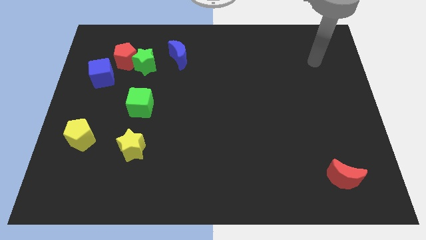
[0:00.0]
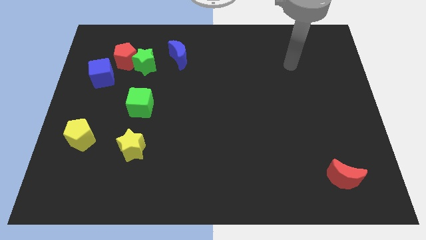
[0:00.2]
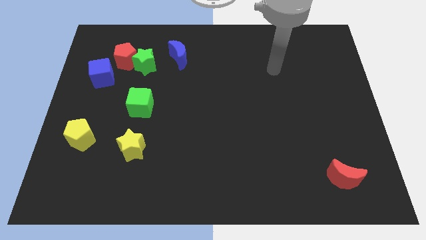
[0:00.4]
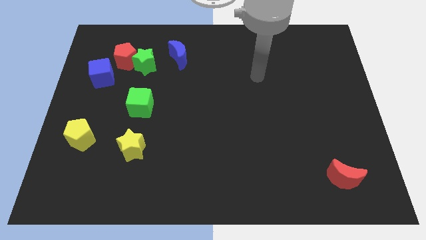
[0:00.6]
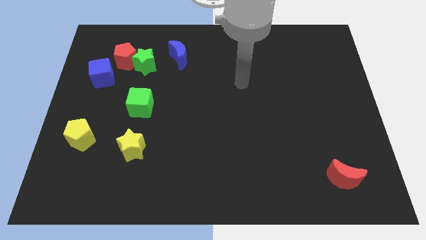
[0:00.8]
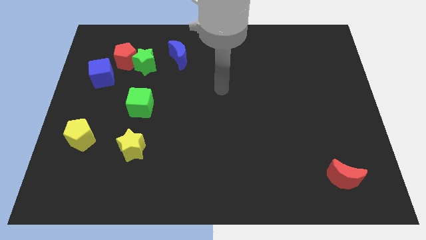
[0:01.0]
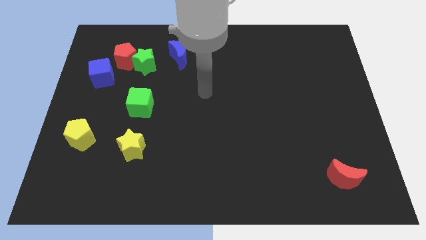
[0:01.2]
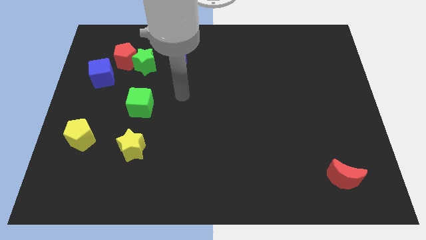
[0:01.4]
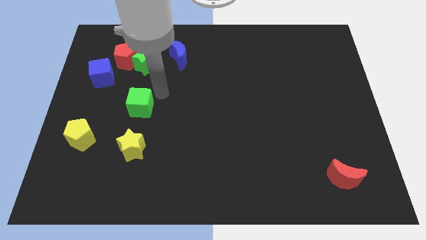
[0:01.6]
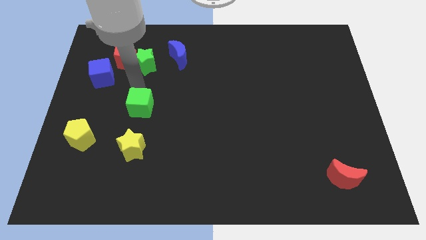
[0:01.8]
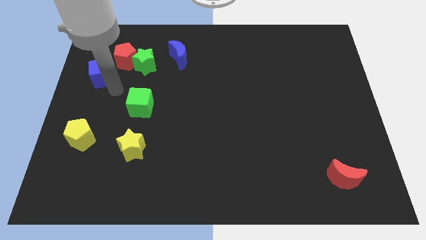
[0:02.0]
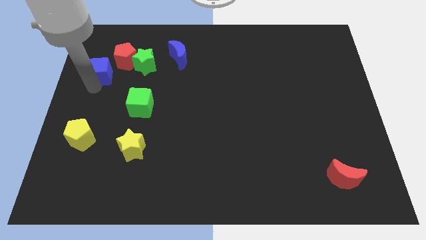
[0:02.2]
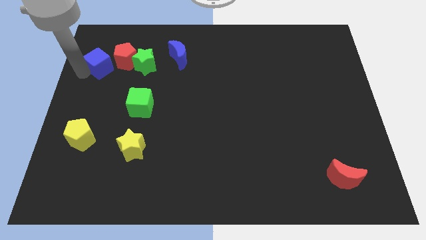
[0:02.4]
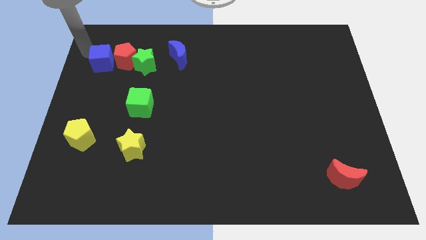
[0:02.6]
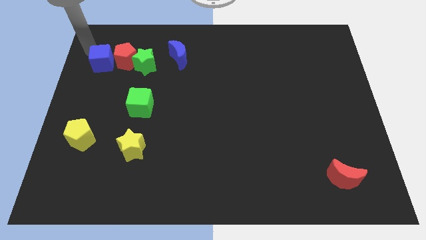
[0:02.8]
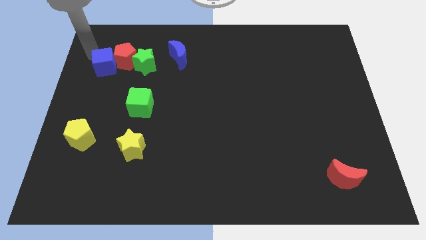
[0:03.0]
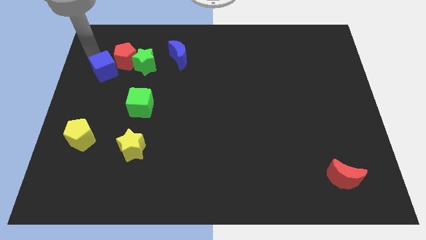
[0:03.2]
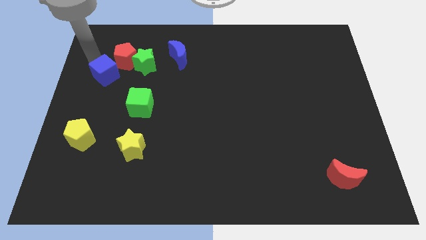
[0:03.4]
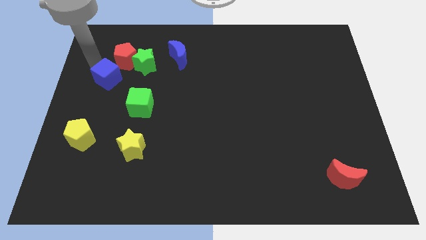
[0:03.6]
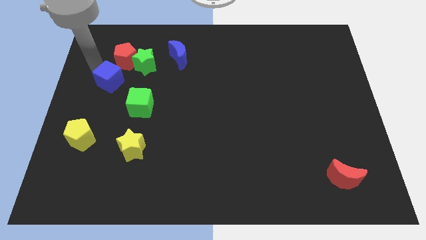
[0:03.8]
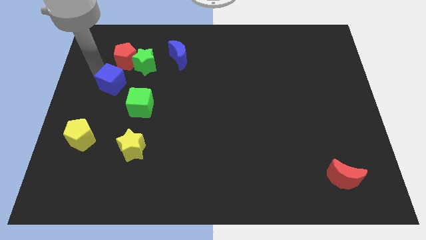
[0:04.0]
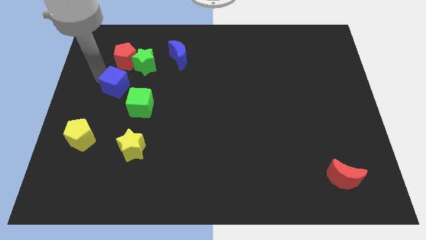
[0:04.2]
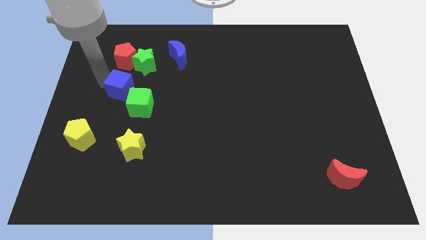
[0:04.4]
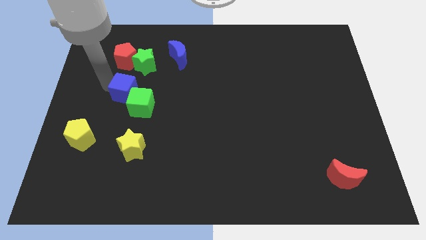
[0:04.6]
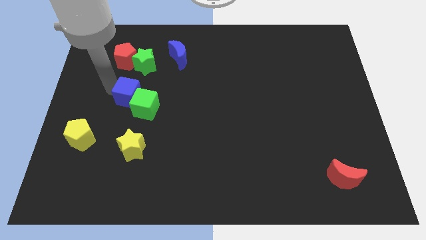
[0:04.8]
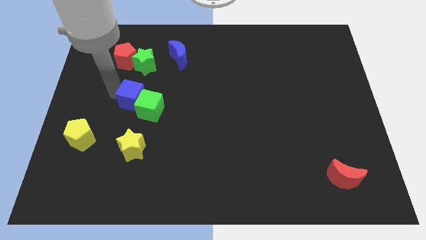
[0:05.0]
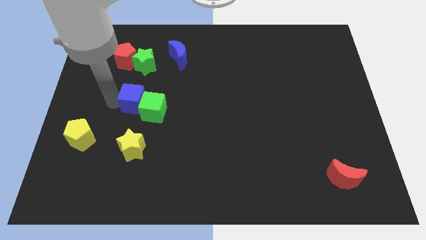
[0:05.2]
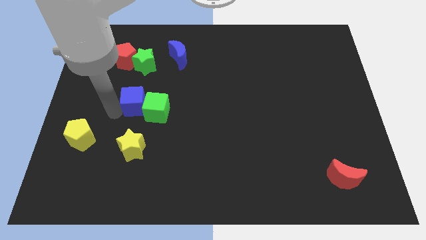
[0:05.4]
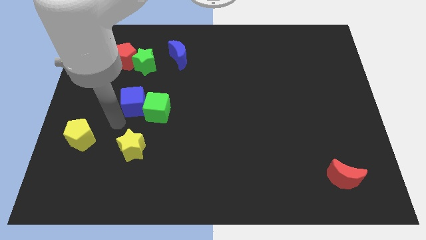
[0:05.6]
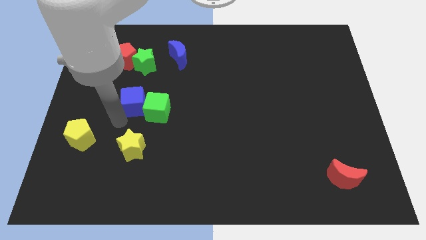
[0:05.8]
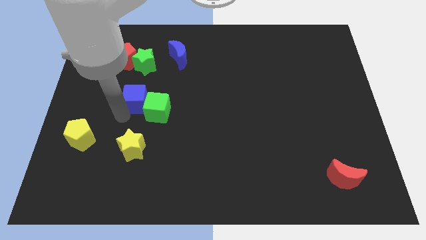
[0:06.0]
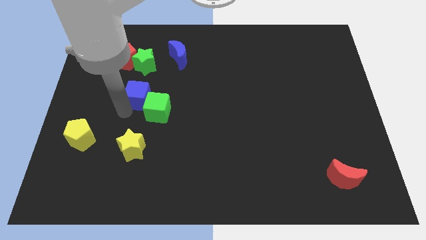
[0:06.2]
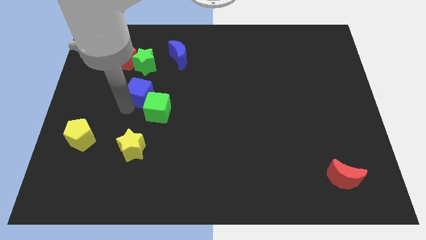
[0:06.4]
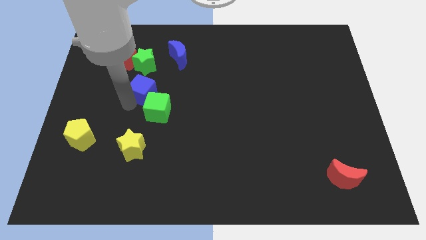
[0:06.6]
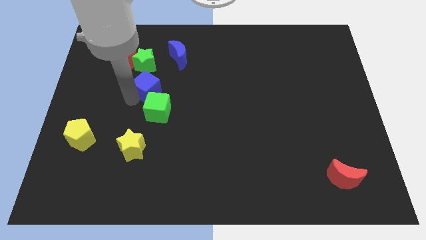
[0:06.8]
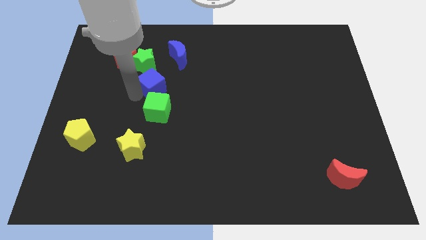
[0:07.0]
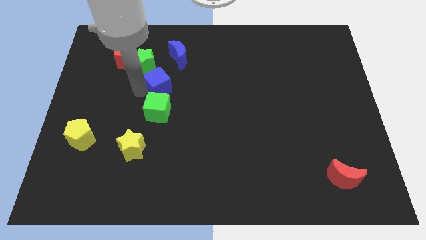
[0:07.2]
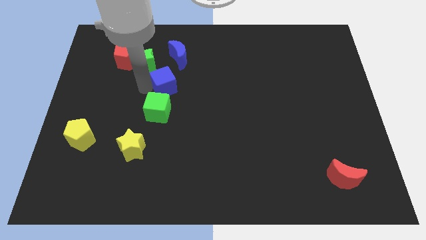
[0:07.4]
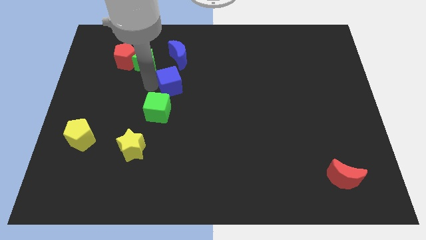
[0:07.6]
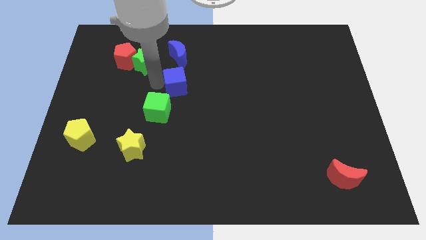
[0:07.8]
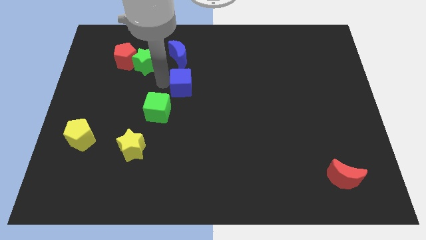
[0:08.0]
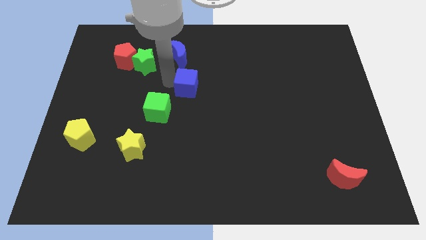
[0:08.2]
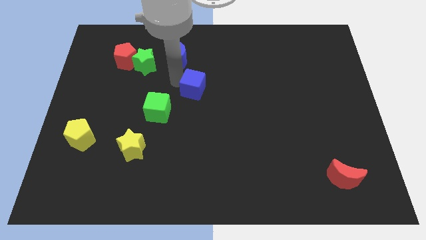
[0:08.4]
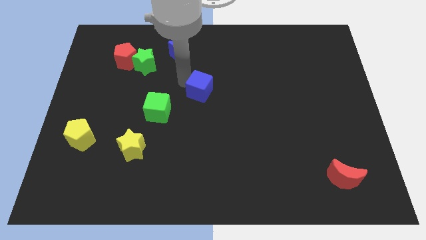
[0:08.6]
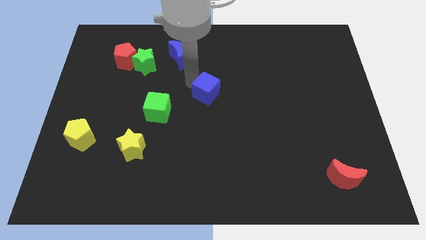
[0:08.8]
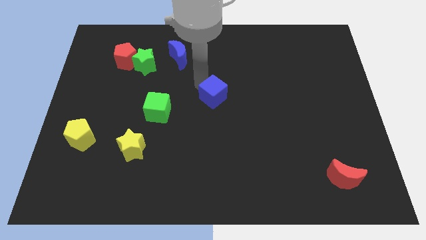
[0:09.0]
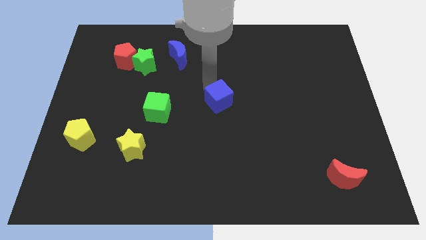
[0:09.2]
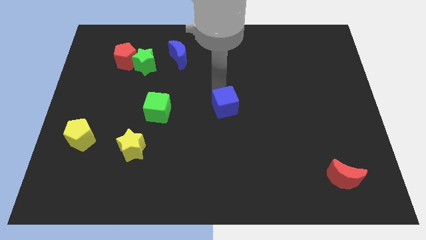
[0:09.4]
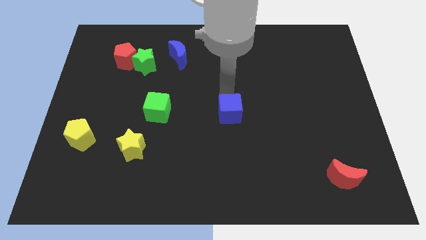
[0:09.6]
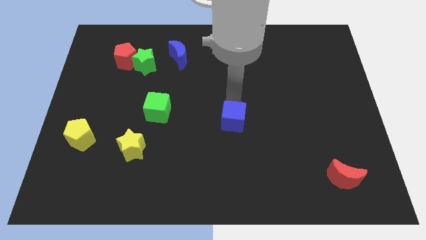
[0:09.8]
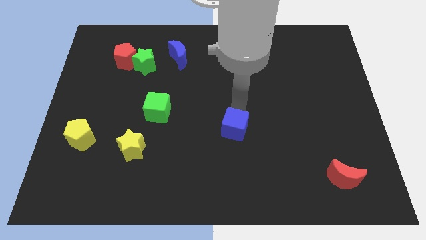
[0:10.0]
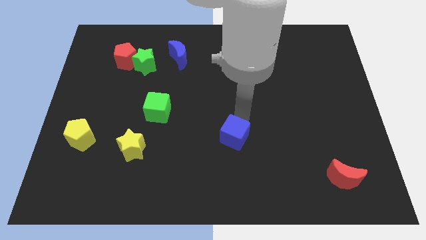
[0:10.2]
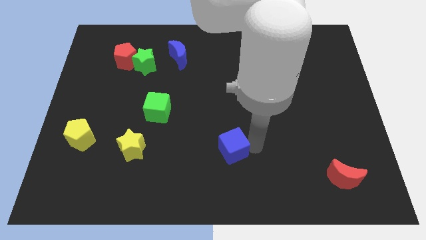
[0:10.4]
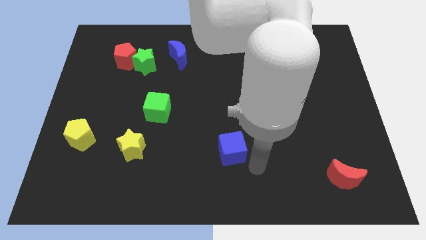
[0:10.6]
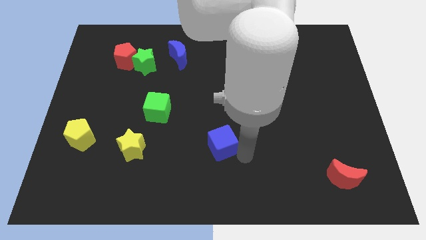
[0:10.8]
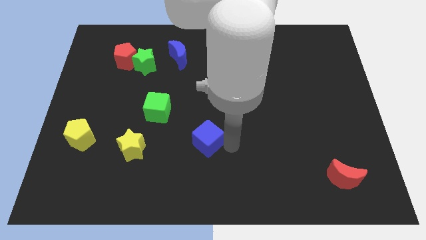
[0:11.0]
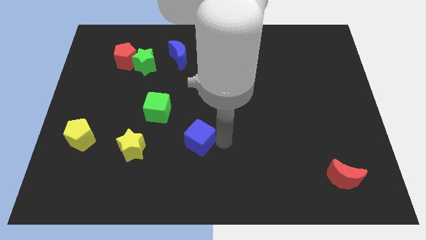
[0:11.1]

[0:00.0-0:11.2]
move the blue cube to the bottom right of the green cube

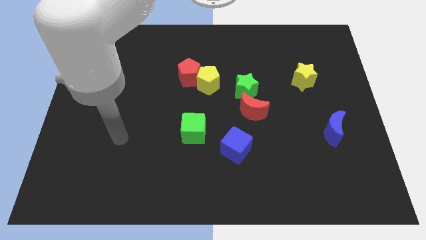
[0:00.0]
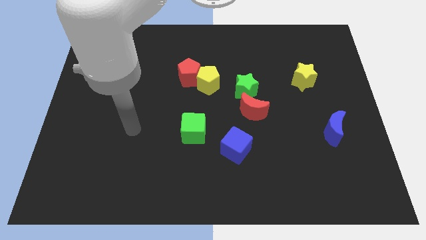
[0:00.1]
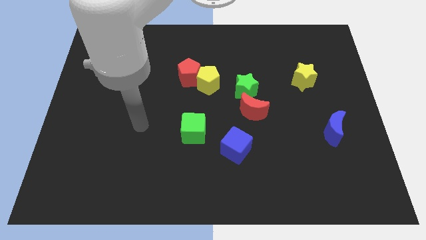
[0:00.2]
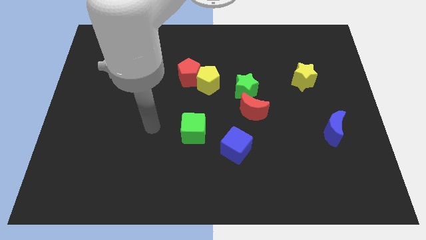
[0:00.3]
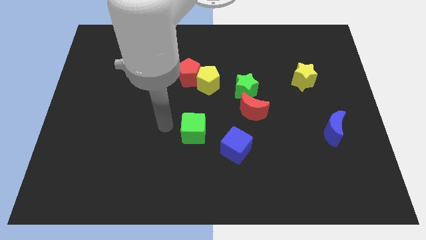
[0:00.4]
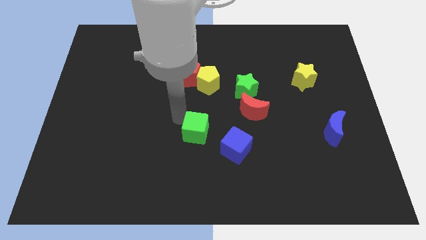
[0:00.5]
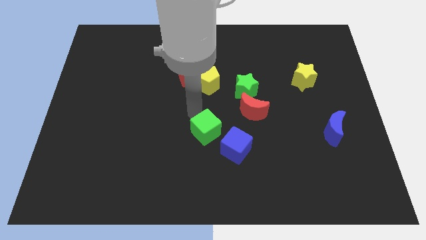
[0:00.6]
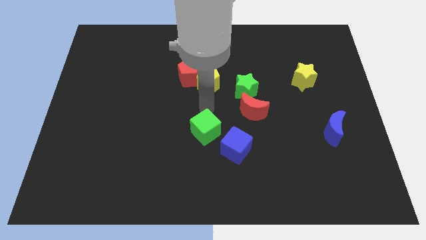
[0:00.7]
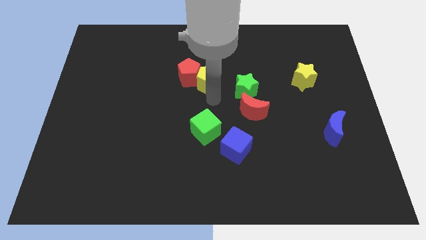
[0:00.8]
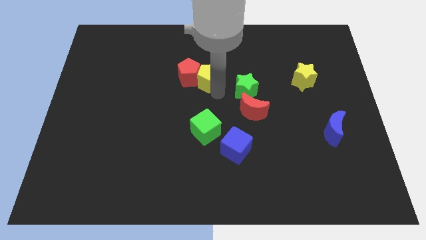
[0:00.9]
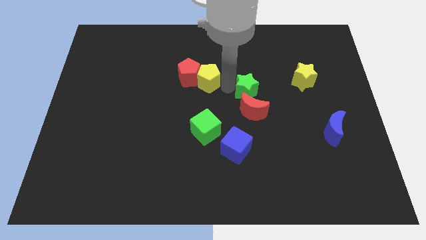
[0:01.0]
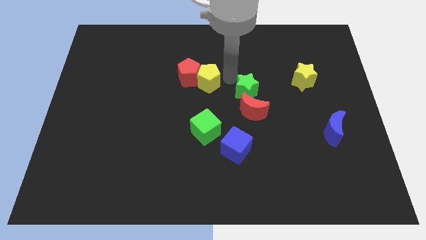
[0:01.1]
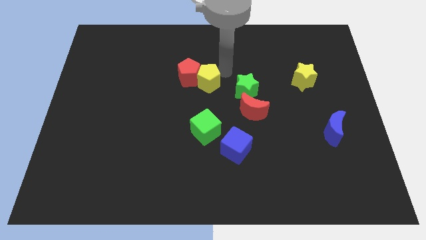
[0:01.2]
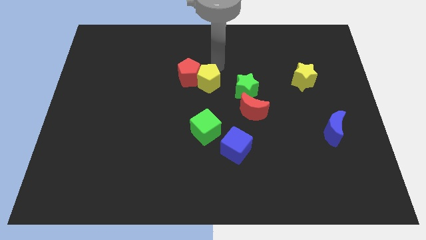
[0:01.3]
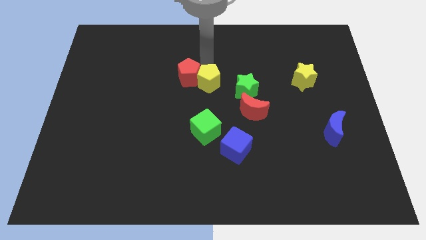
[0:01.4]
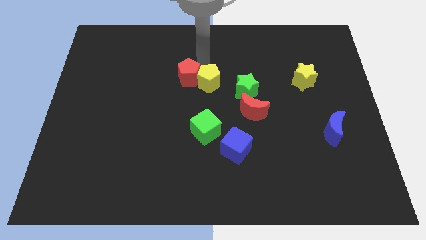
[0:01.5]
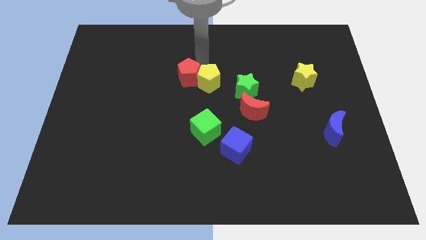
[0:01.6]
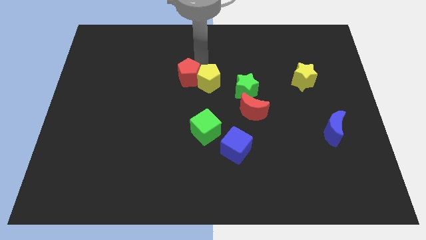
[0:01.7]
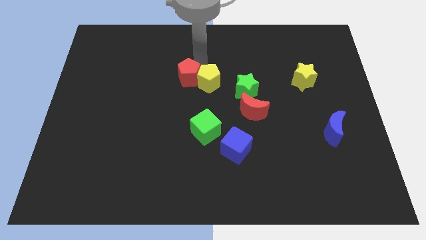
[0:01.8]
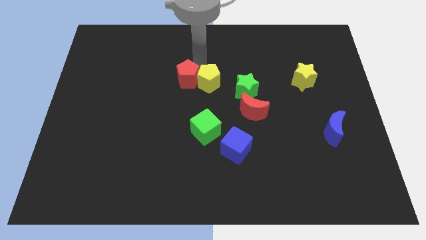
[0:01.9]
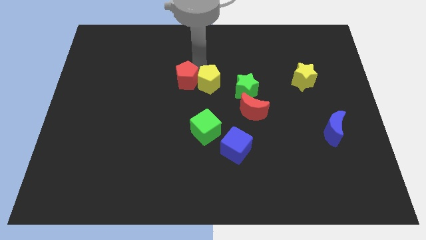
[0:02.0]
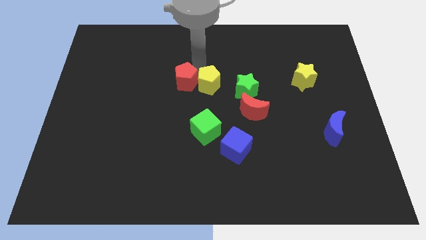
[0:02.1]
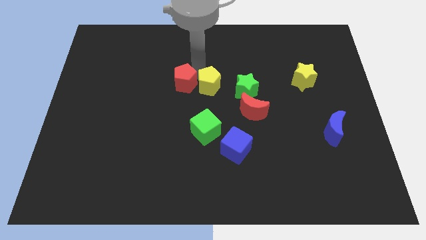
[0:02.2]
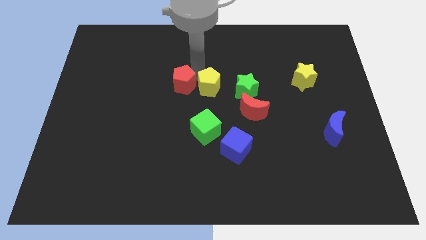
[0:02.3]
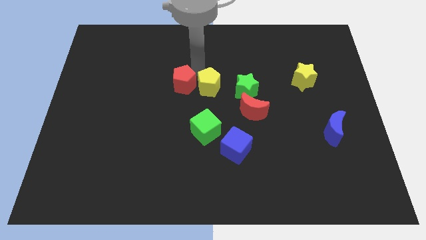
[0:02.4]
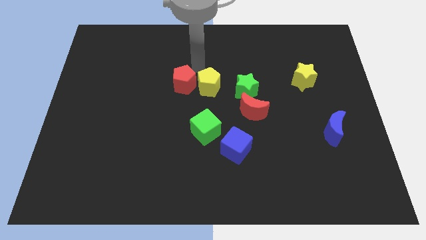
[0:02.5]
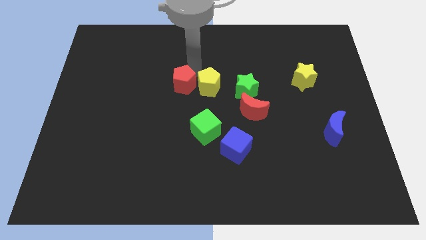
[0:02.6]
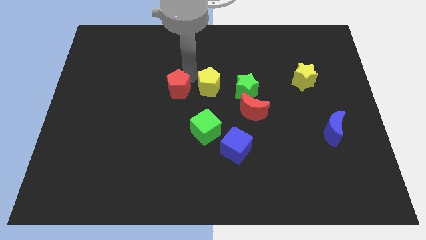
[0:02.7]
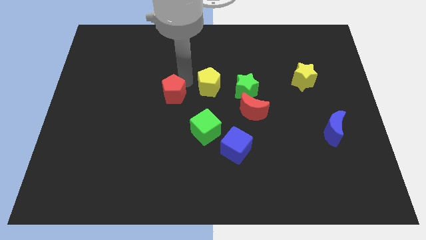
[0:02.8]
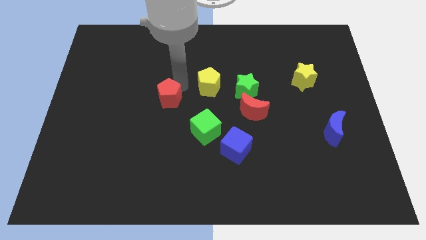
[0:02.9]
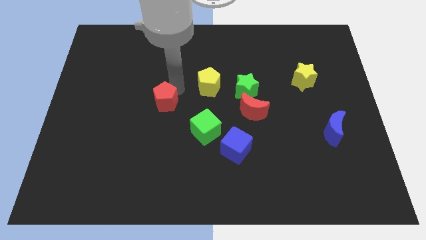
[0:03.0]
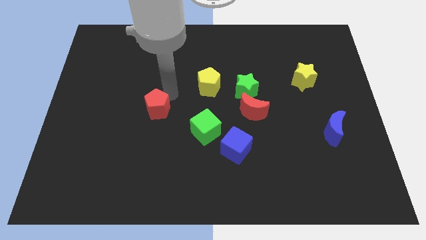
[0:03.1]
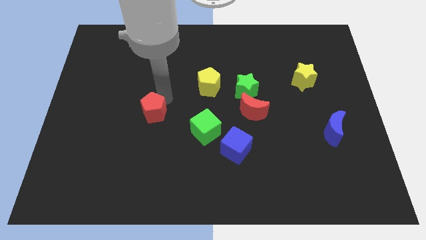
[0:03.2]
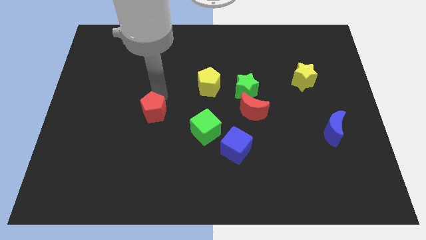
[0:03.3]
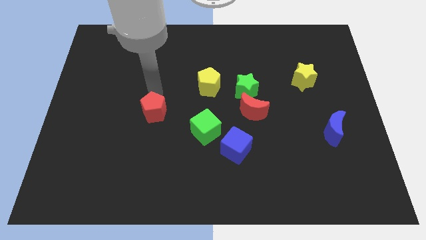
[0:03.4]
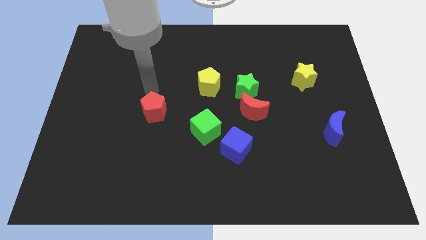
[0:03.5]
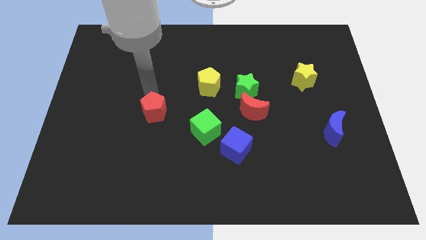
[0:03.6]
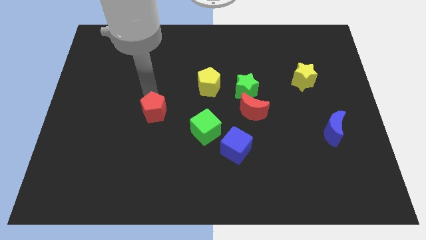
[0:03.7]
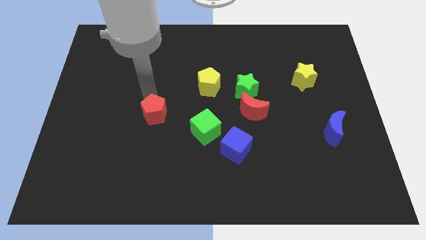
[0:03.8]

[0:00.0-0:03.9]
push the red pentagon left of the green cube
